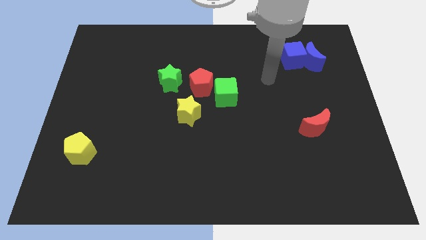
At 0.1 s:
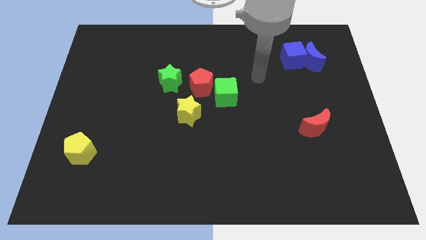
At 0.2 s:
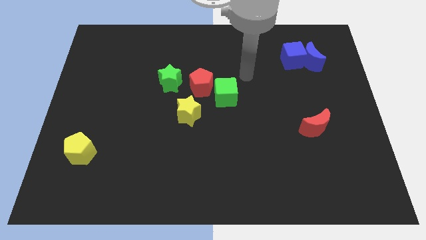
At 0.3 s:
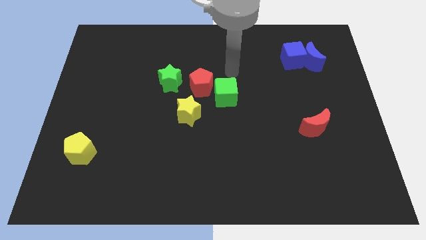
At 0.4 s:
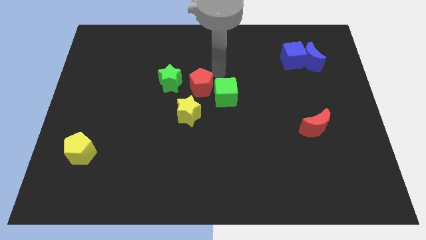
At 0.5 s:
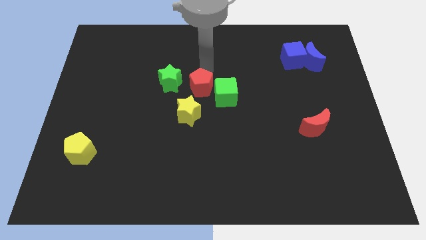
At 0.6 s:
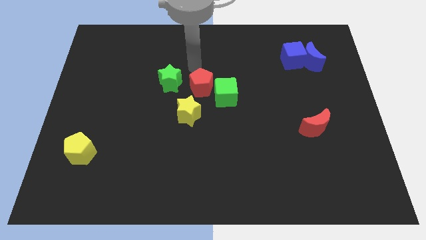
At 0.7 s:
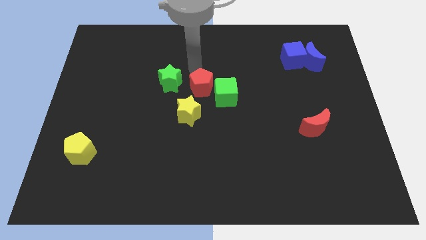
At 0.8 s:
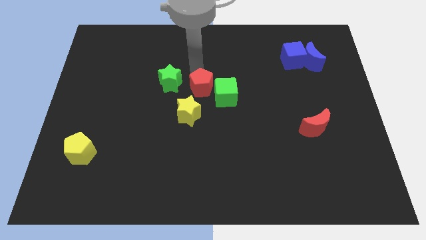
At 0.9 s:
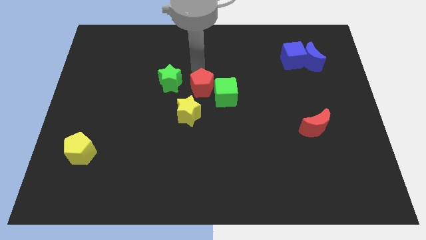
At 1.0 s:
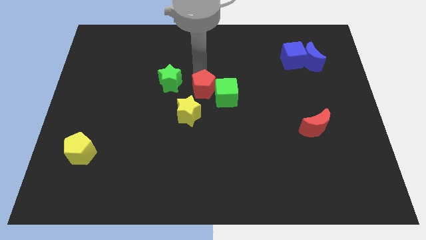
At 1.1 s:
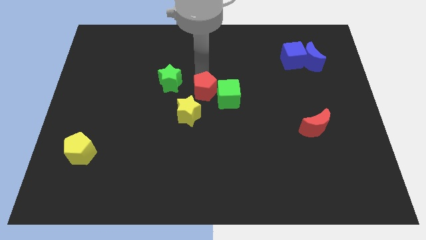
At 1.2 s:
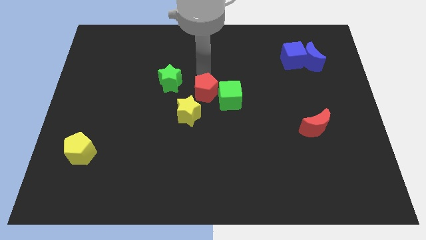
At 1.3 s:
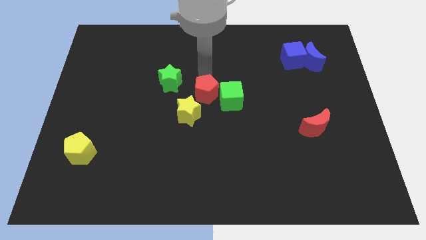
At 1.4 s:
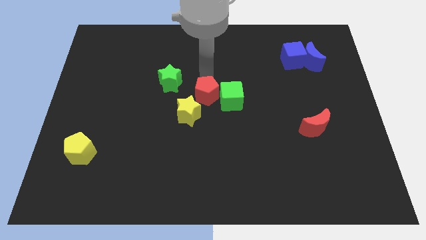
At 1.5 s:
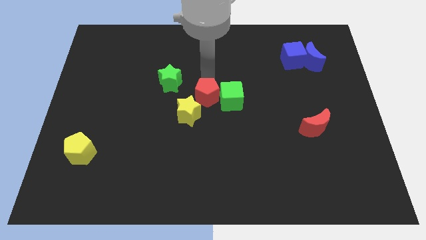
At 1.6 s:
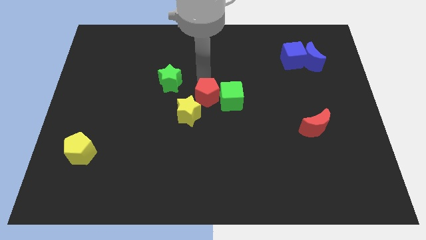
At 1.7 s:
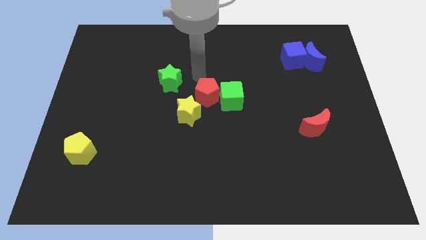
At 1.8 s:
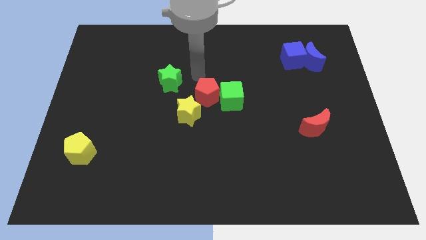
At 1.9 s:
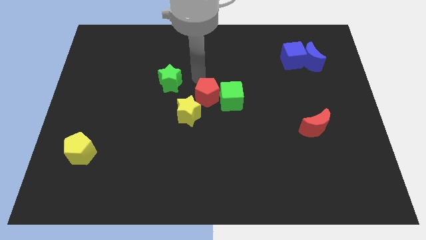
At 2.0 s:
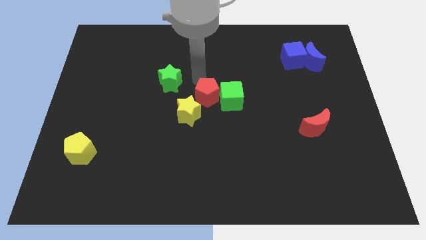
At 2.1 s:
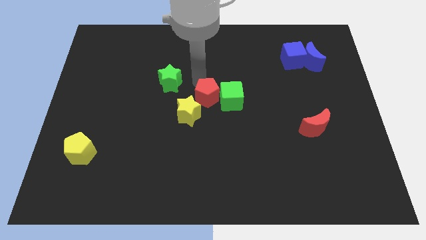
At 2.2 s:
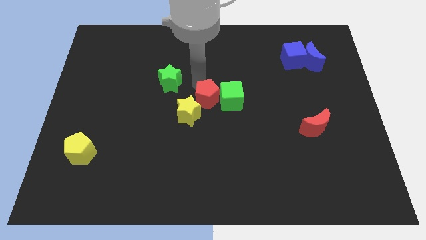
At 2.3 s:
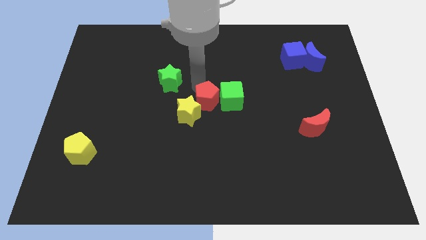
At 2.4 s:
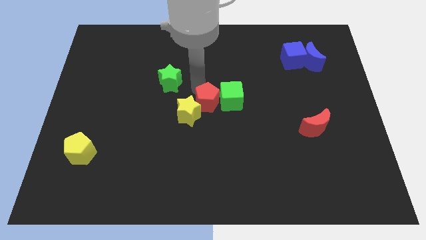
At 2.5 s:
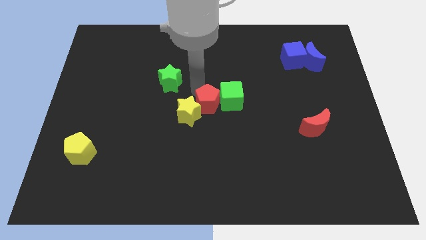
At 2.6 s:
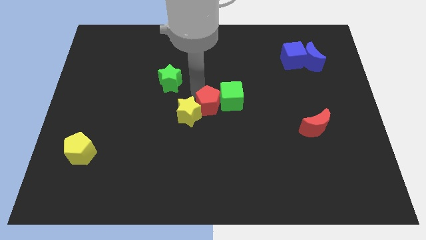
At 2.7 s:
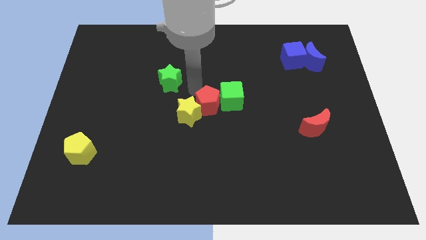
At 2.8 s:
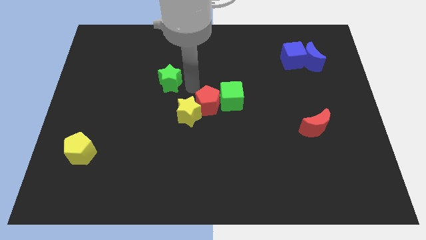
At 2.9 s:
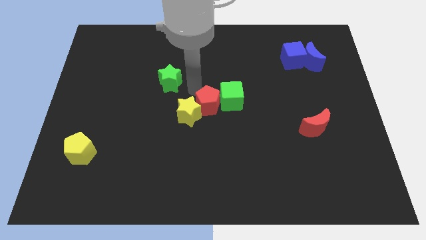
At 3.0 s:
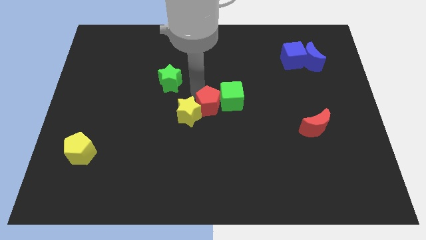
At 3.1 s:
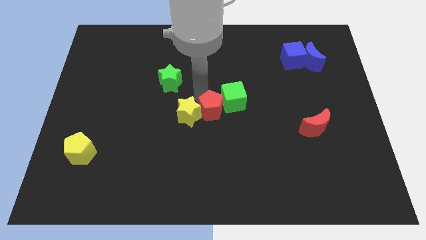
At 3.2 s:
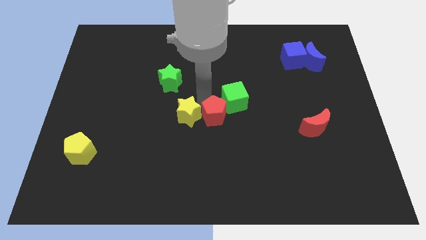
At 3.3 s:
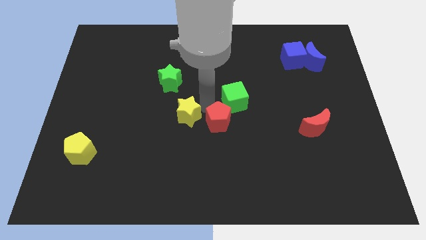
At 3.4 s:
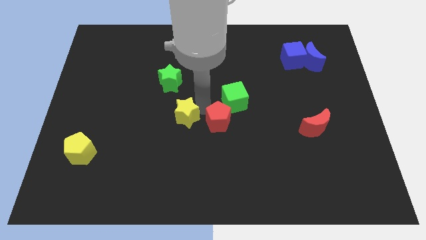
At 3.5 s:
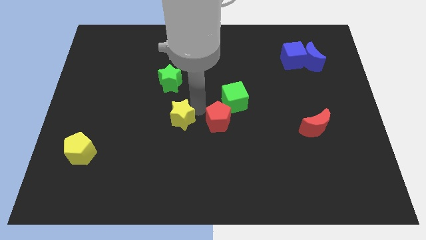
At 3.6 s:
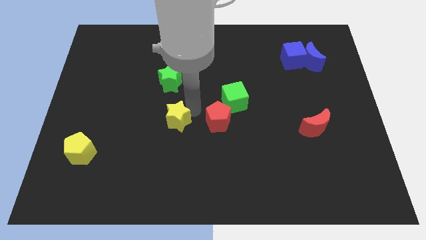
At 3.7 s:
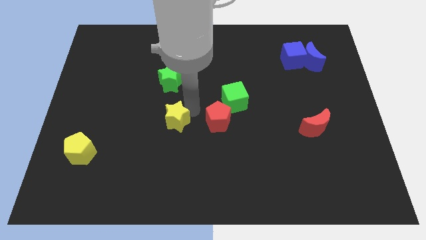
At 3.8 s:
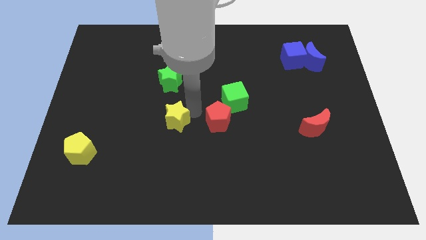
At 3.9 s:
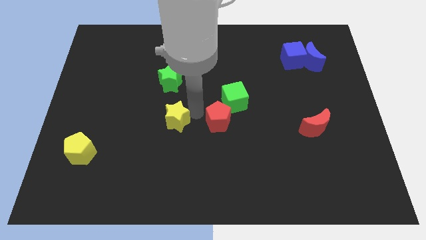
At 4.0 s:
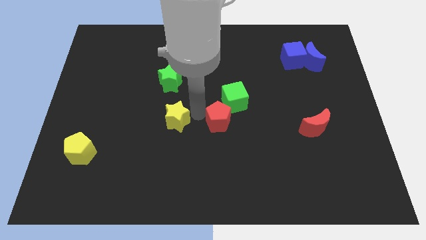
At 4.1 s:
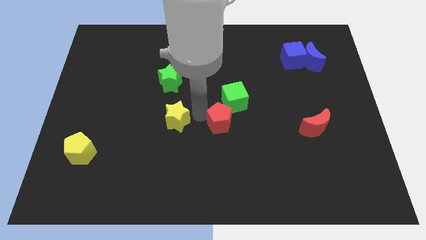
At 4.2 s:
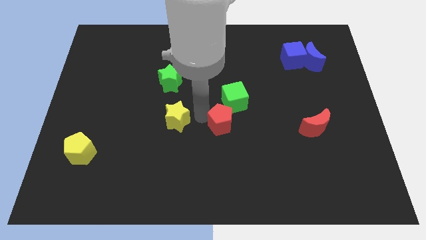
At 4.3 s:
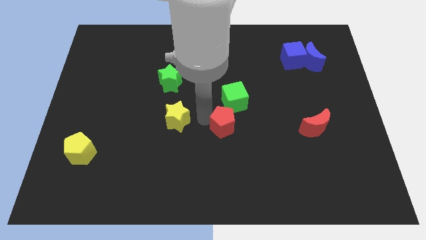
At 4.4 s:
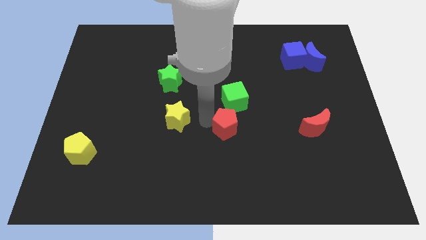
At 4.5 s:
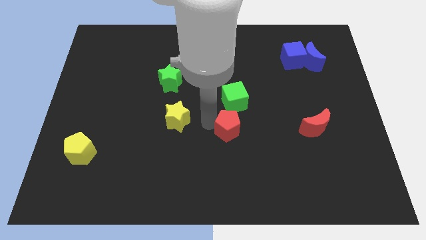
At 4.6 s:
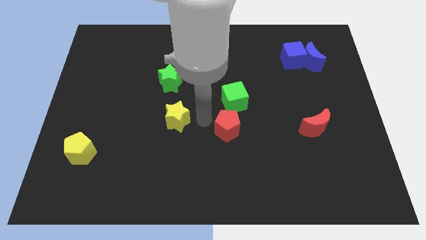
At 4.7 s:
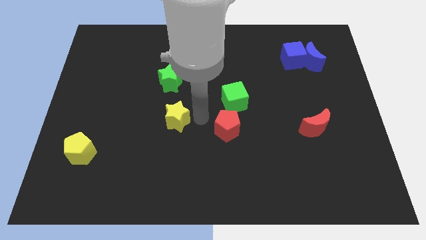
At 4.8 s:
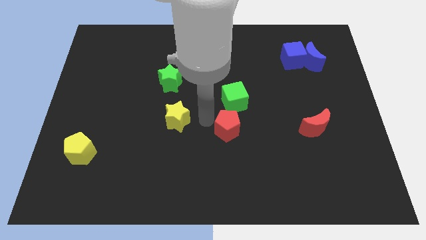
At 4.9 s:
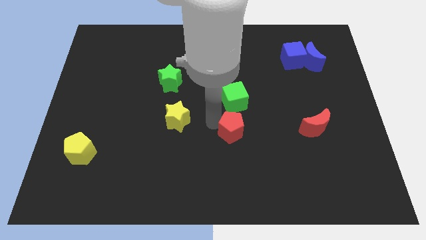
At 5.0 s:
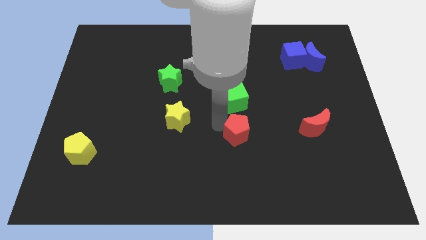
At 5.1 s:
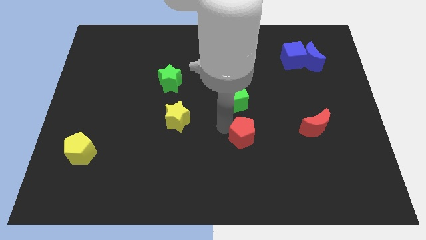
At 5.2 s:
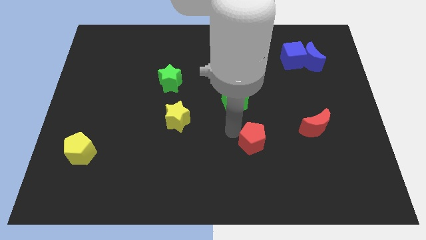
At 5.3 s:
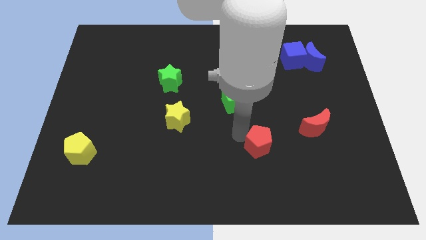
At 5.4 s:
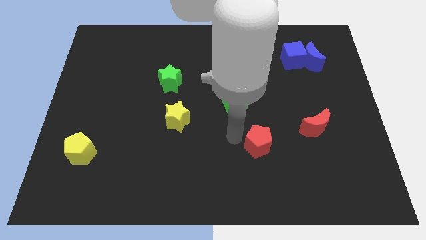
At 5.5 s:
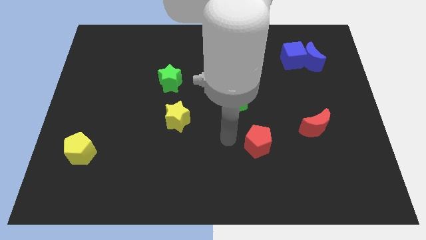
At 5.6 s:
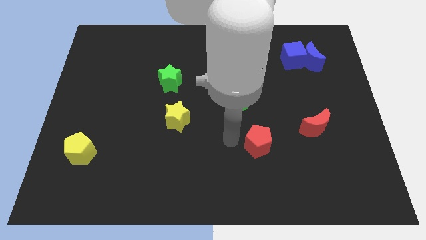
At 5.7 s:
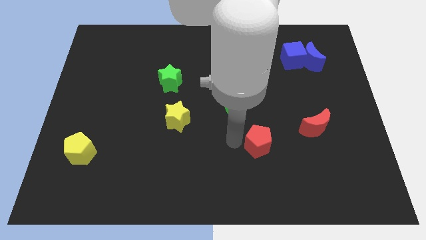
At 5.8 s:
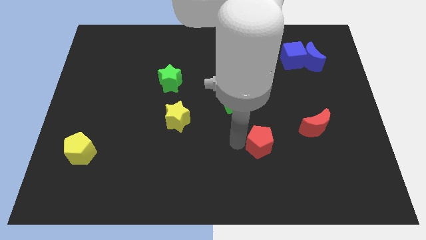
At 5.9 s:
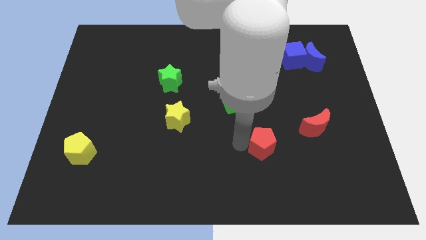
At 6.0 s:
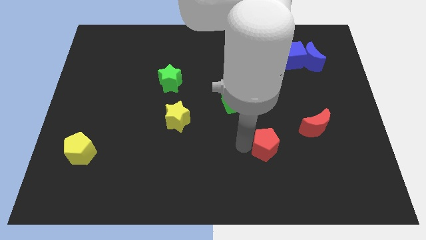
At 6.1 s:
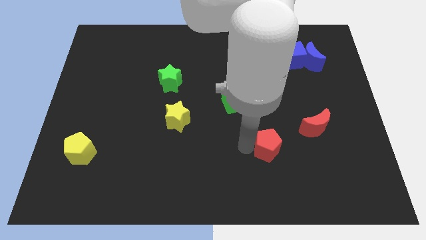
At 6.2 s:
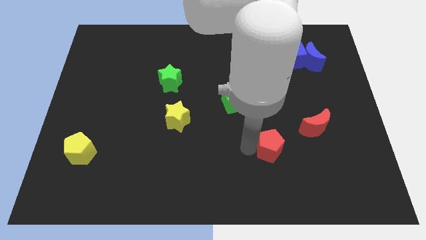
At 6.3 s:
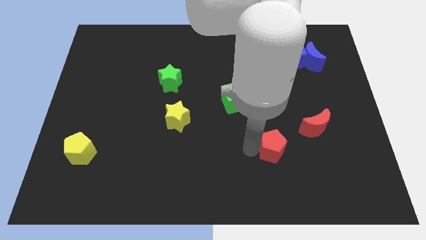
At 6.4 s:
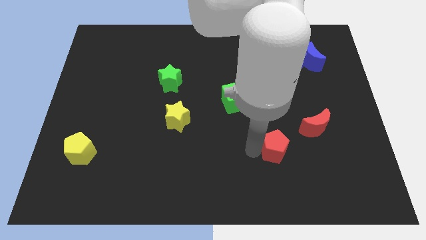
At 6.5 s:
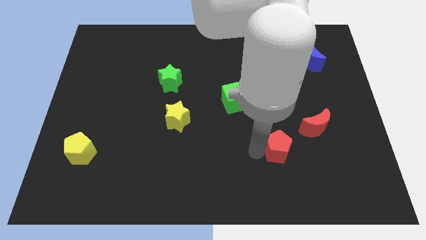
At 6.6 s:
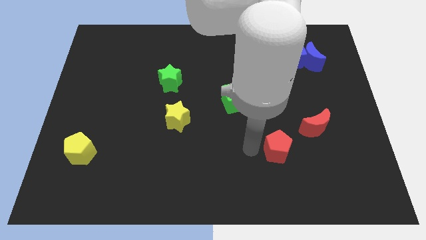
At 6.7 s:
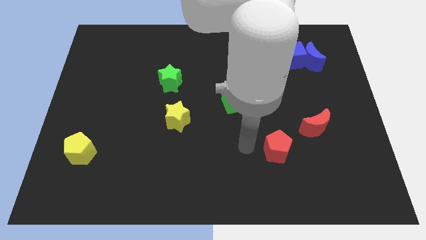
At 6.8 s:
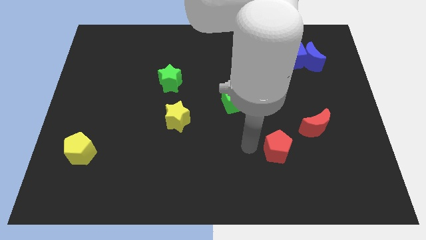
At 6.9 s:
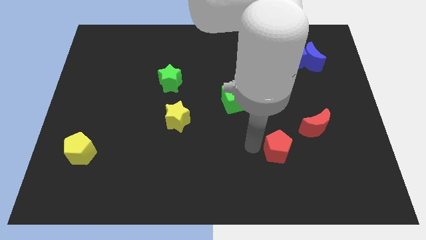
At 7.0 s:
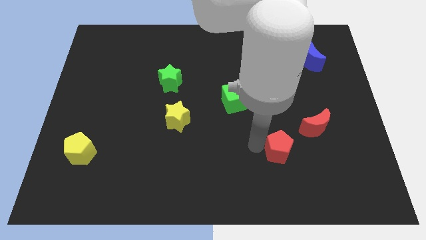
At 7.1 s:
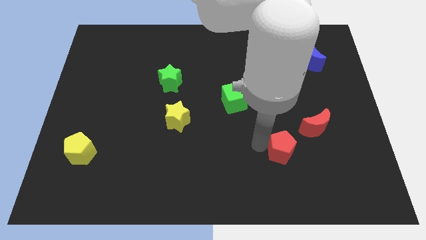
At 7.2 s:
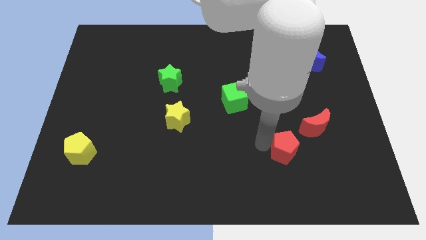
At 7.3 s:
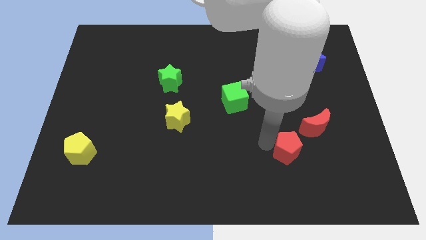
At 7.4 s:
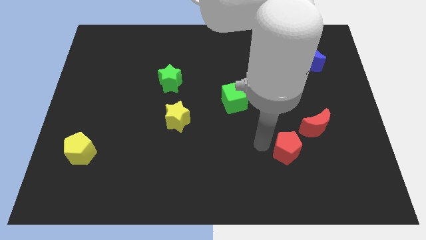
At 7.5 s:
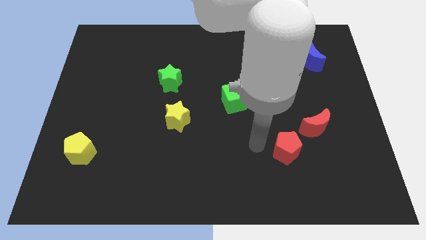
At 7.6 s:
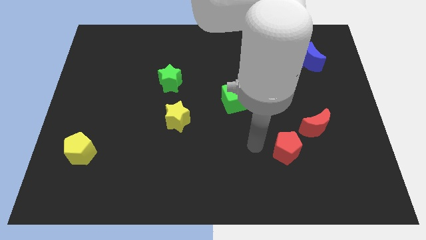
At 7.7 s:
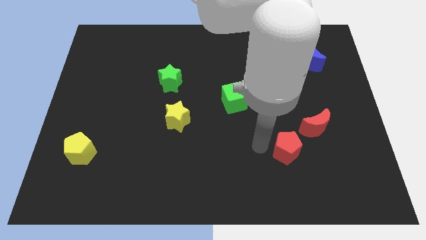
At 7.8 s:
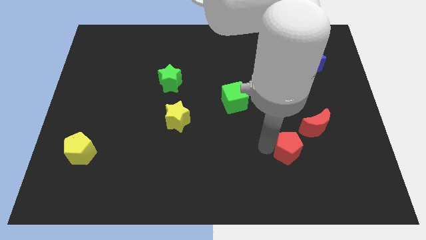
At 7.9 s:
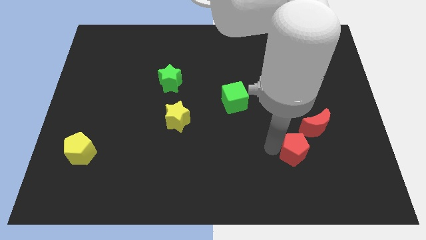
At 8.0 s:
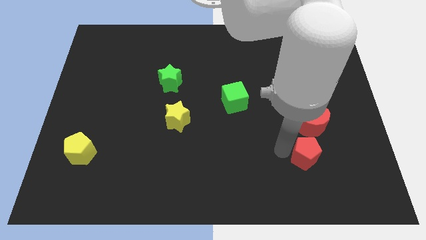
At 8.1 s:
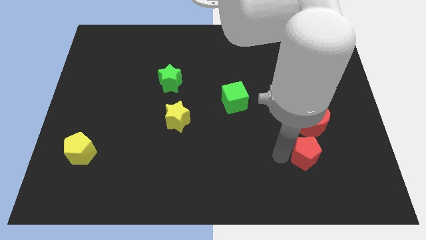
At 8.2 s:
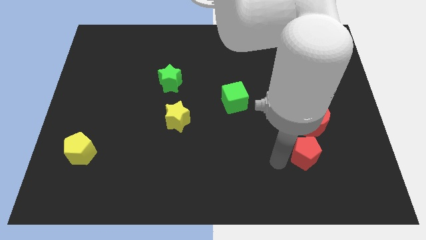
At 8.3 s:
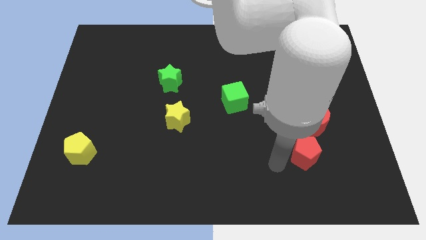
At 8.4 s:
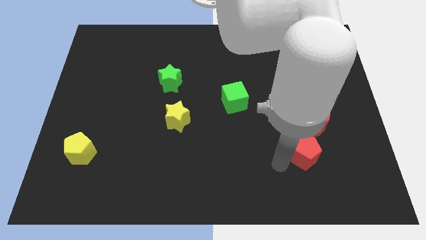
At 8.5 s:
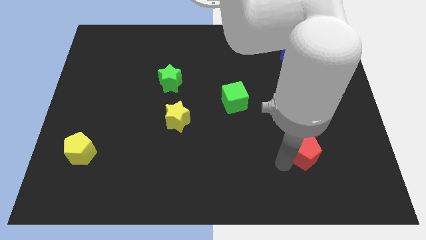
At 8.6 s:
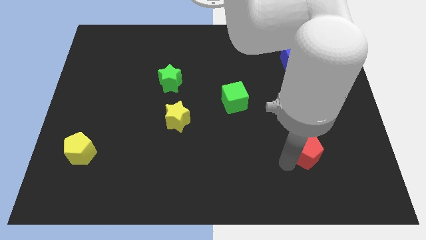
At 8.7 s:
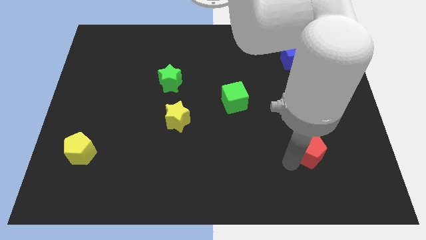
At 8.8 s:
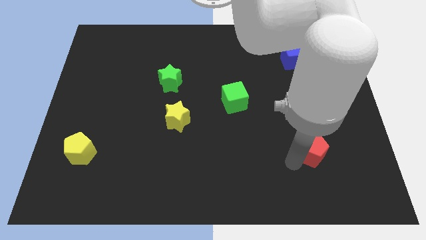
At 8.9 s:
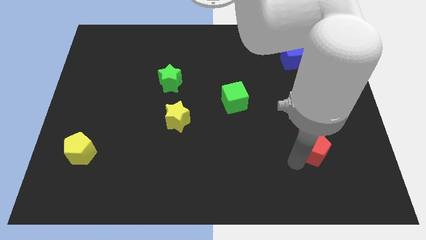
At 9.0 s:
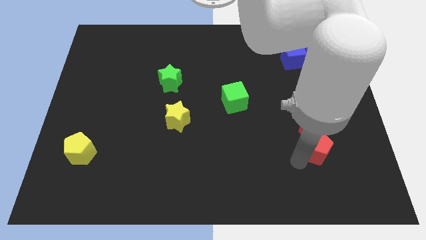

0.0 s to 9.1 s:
slide the red pentagon to the bottom right of the red moon
